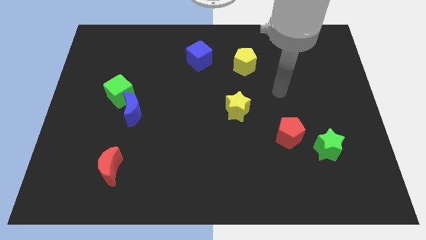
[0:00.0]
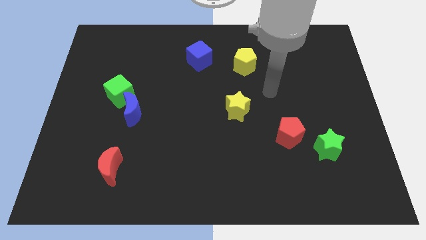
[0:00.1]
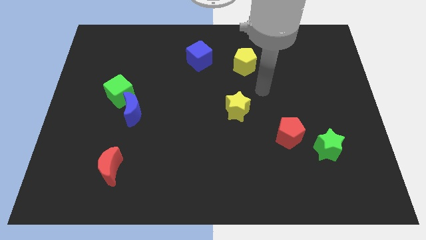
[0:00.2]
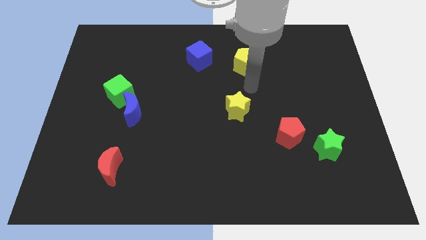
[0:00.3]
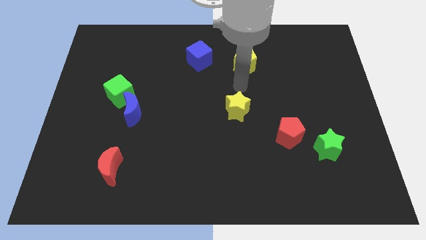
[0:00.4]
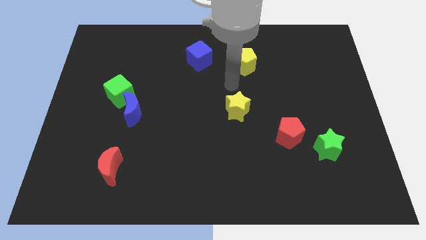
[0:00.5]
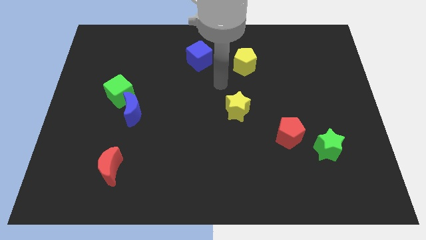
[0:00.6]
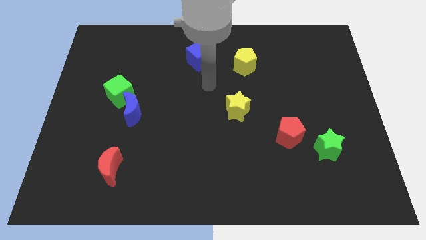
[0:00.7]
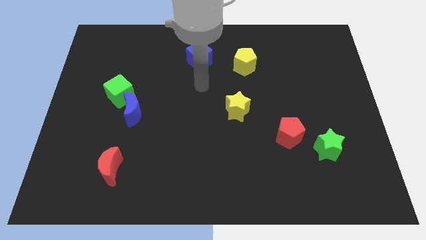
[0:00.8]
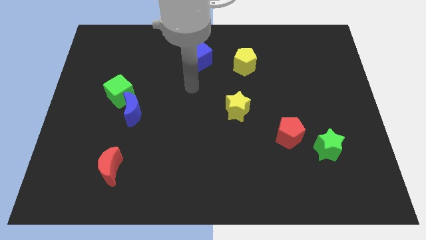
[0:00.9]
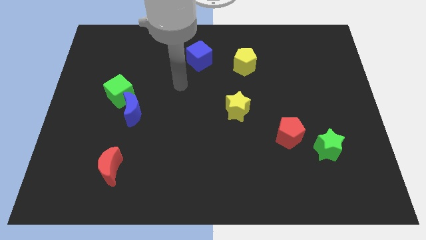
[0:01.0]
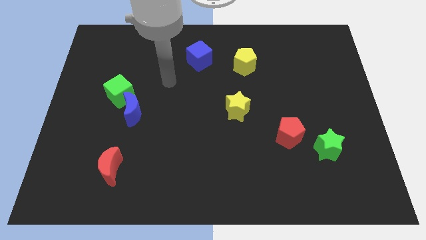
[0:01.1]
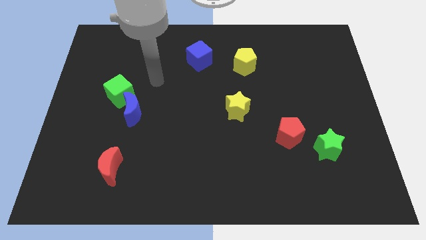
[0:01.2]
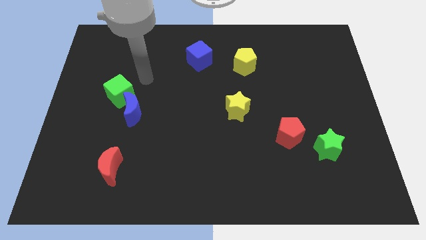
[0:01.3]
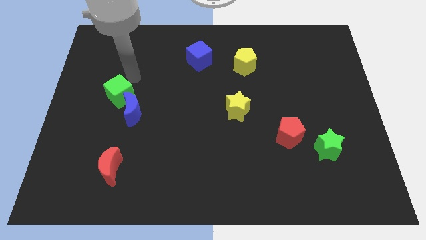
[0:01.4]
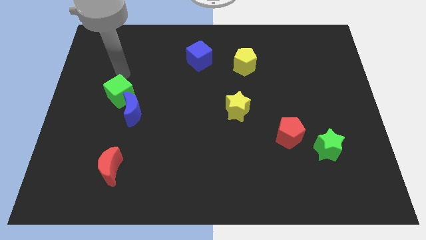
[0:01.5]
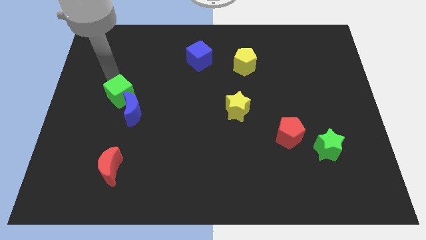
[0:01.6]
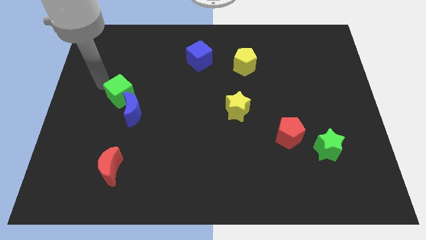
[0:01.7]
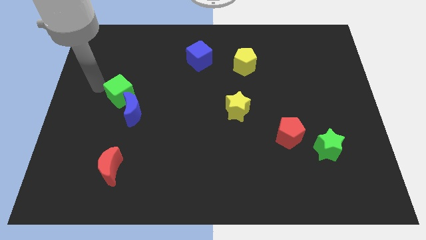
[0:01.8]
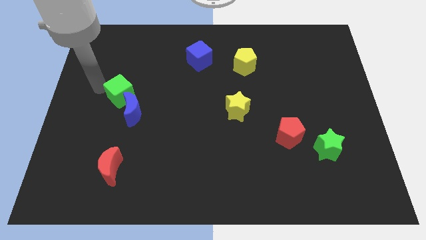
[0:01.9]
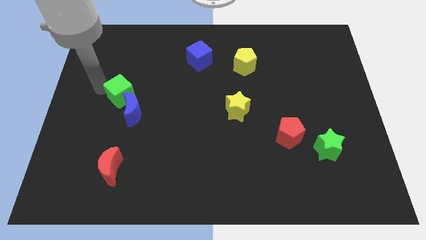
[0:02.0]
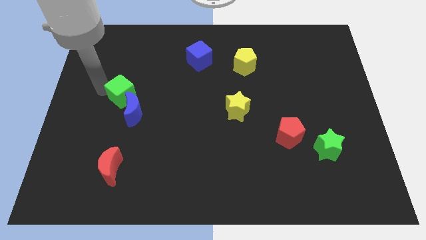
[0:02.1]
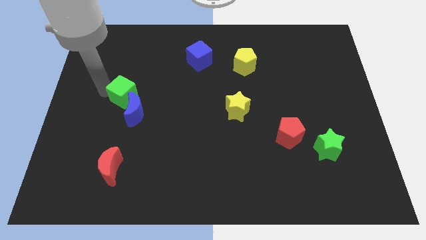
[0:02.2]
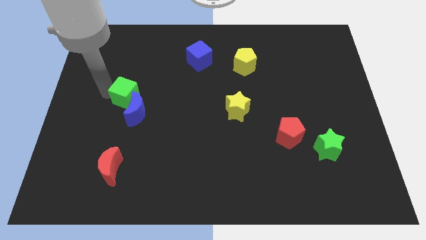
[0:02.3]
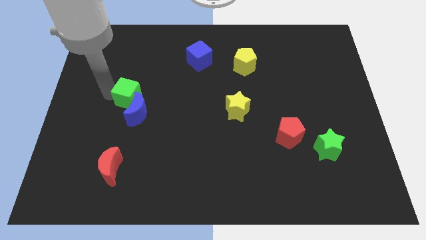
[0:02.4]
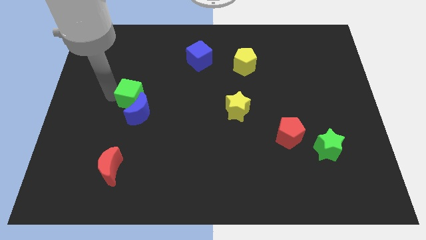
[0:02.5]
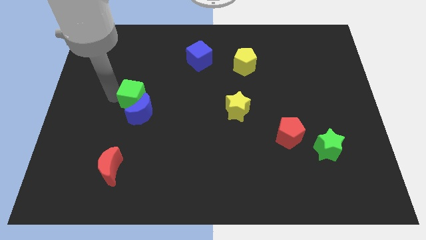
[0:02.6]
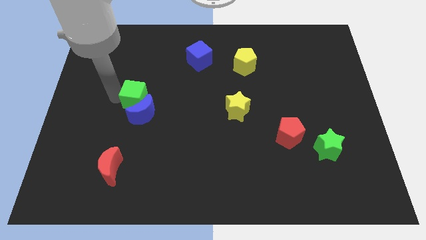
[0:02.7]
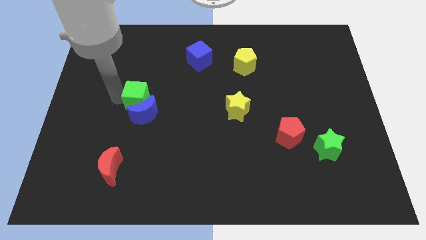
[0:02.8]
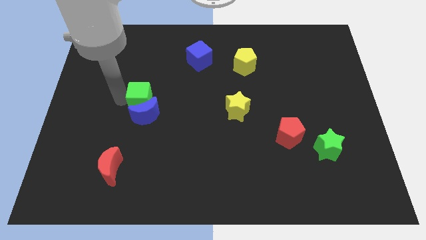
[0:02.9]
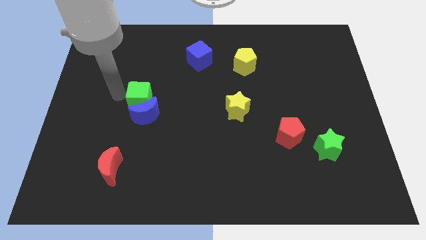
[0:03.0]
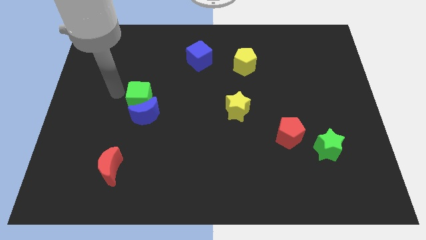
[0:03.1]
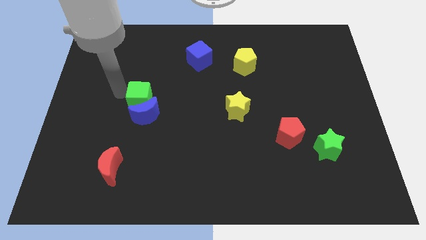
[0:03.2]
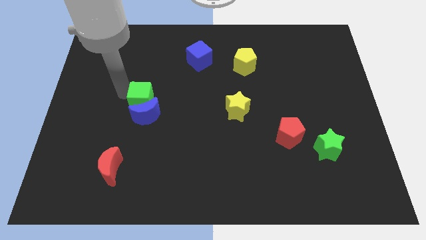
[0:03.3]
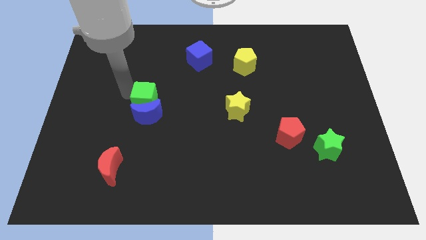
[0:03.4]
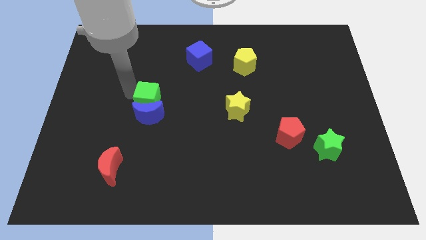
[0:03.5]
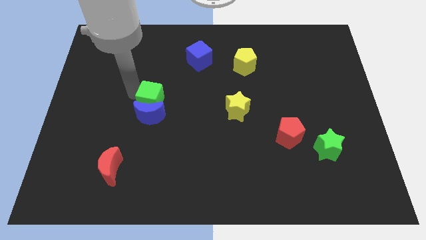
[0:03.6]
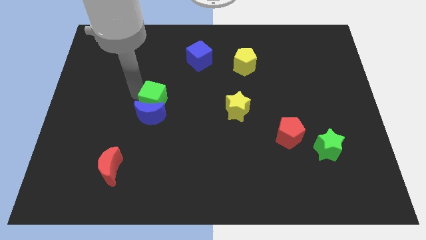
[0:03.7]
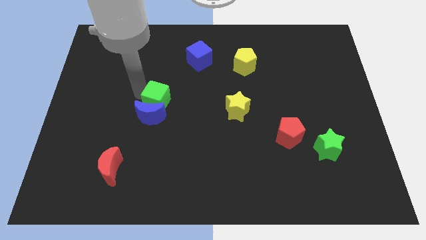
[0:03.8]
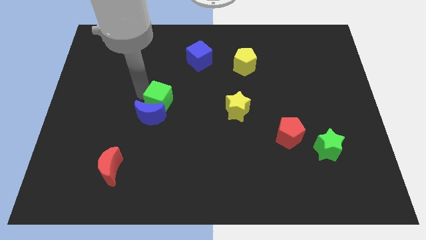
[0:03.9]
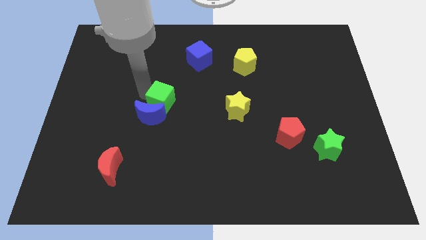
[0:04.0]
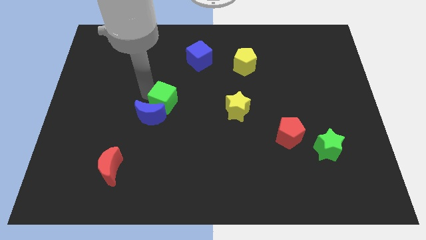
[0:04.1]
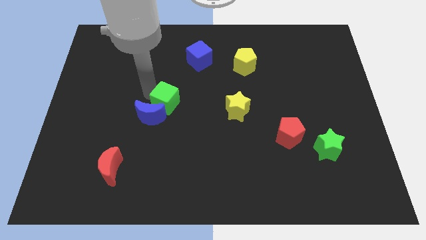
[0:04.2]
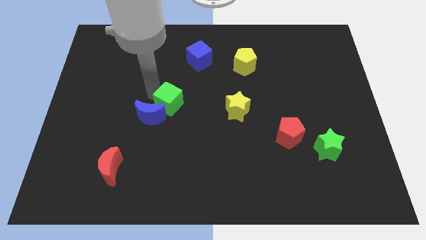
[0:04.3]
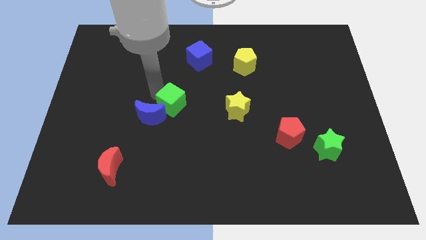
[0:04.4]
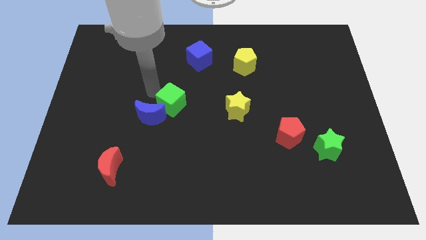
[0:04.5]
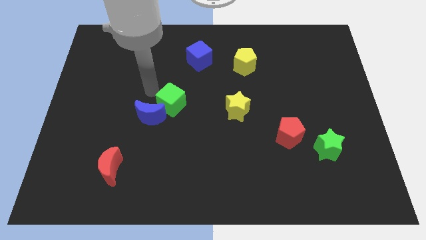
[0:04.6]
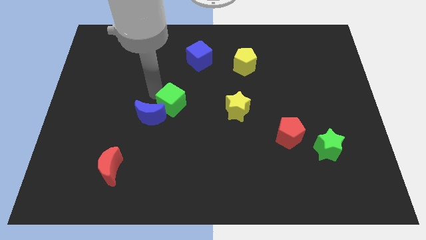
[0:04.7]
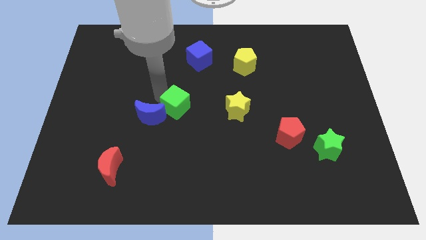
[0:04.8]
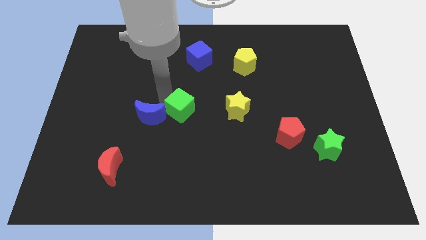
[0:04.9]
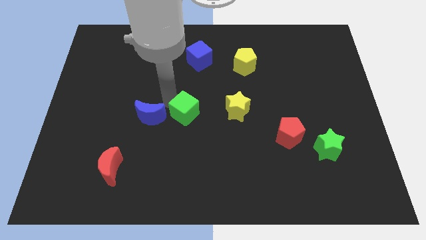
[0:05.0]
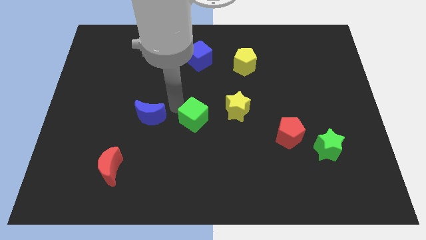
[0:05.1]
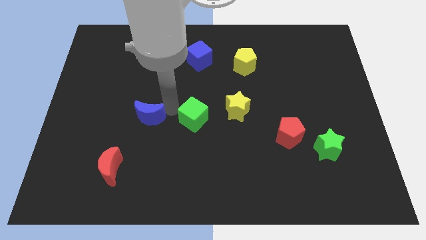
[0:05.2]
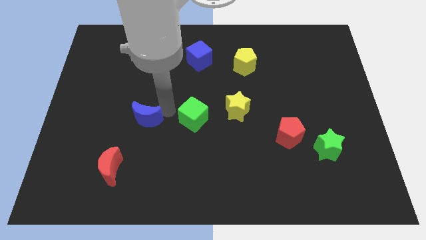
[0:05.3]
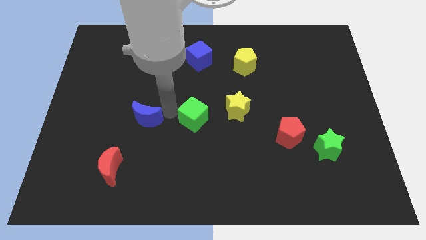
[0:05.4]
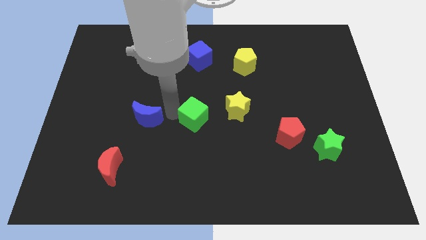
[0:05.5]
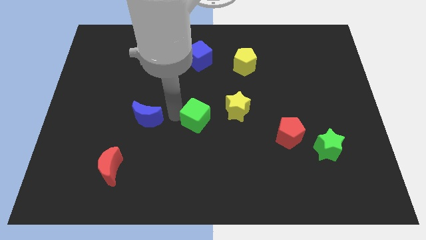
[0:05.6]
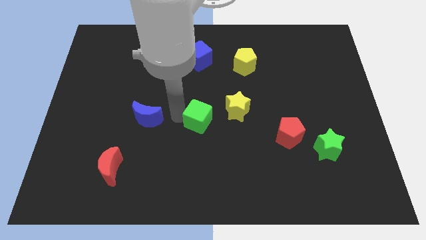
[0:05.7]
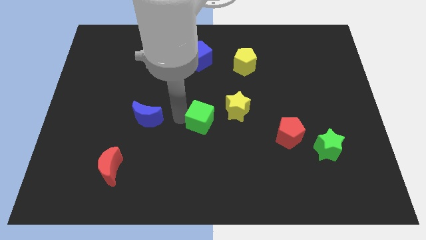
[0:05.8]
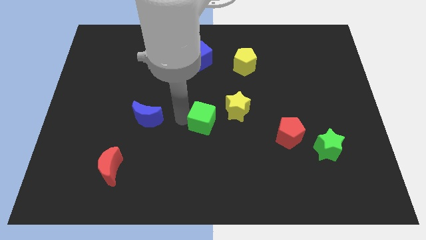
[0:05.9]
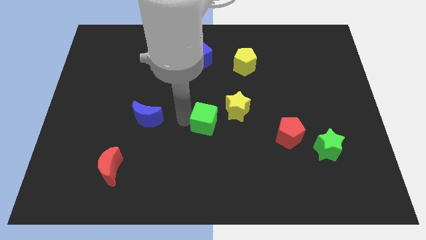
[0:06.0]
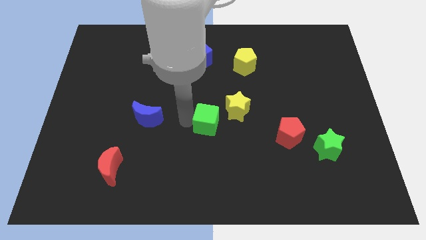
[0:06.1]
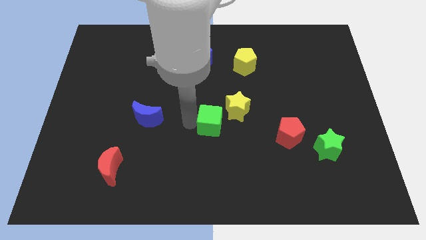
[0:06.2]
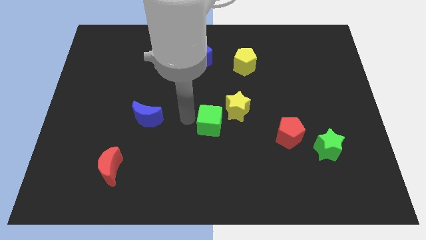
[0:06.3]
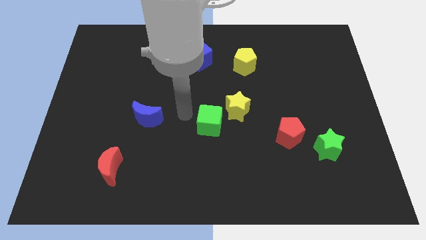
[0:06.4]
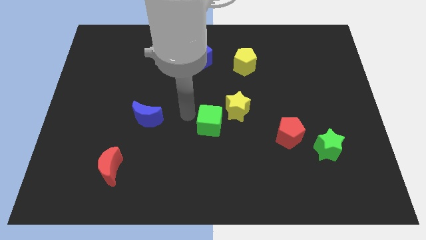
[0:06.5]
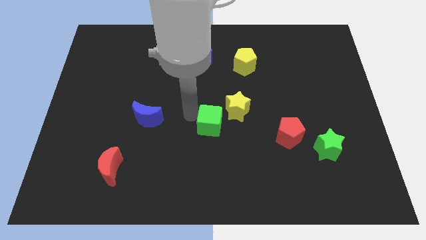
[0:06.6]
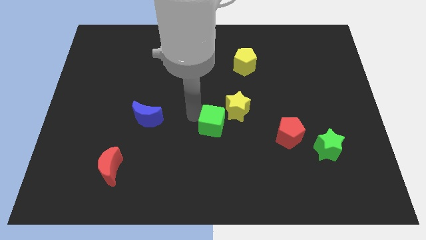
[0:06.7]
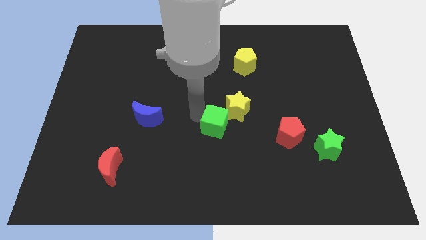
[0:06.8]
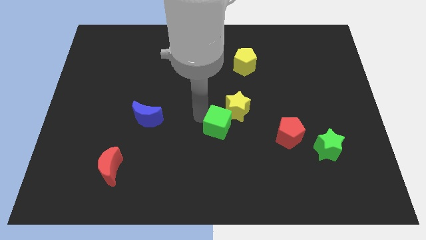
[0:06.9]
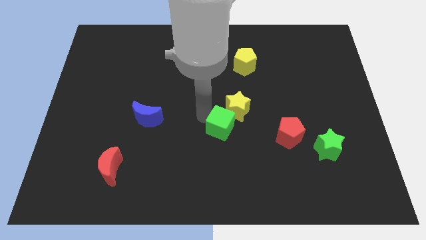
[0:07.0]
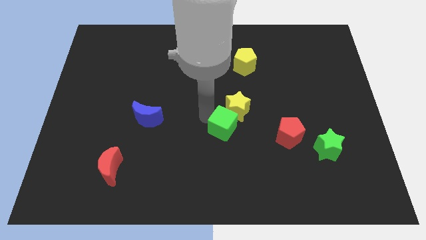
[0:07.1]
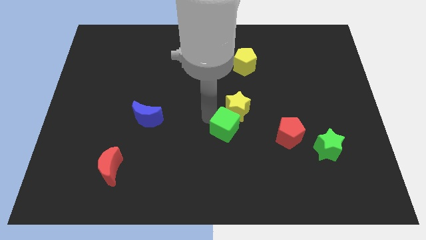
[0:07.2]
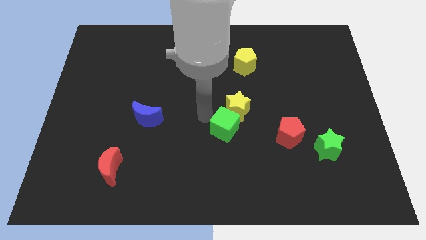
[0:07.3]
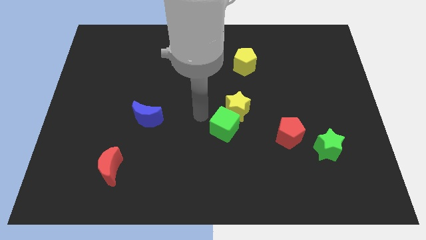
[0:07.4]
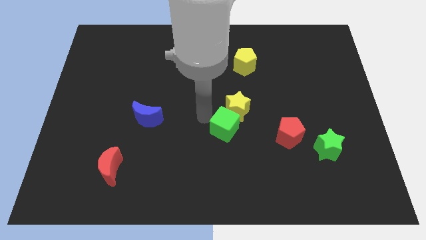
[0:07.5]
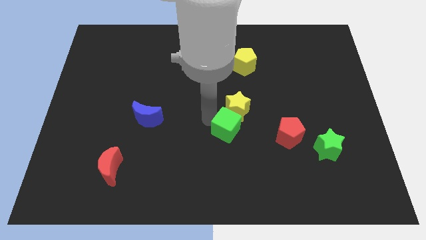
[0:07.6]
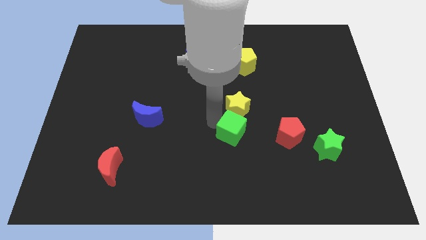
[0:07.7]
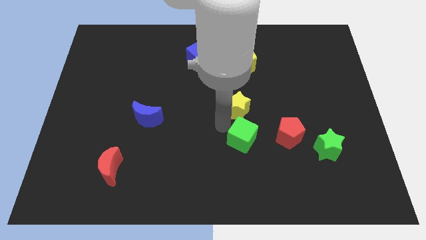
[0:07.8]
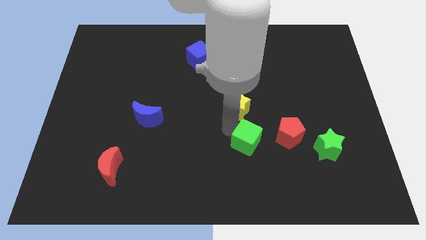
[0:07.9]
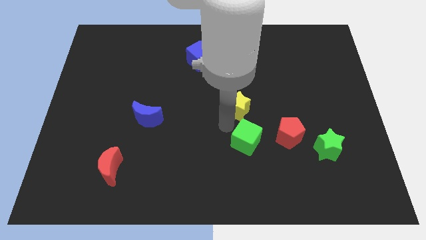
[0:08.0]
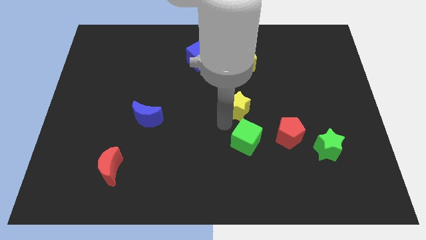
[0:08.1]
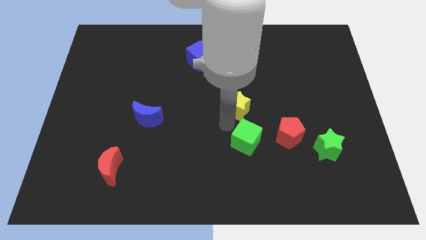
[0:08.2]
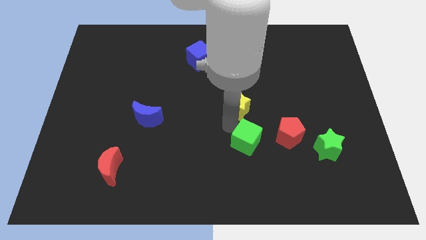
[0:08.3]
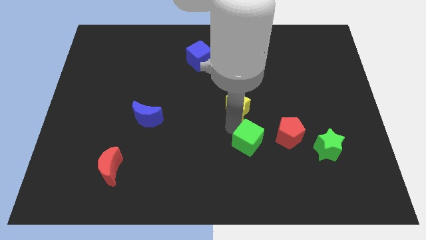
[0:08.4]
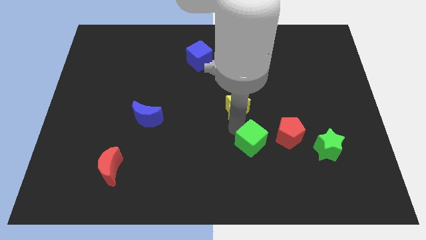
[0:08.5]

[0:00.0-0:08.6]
slide the green cube to the bottom left side of the red pentagon
